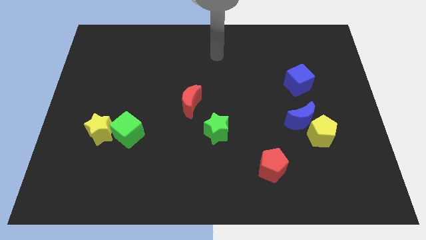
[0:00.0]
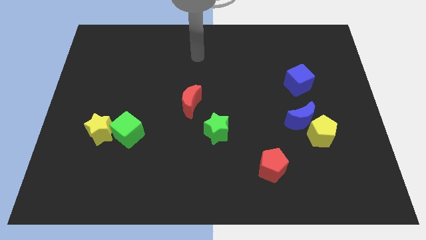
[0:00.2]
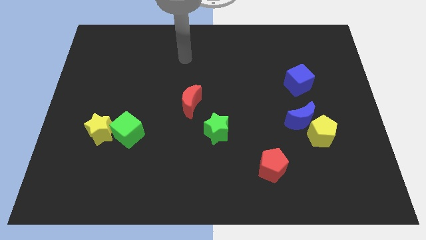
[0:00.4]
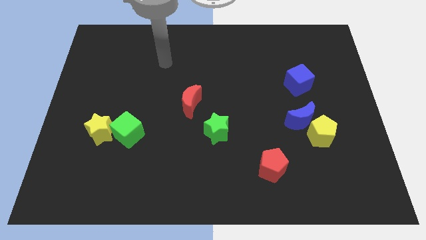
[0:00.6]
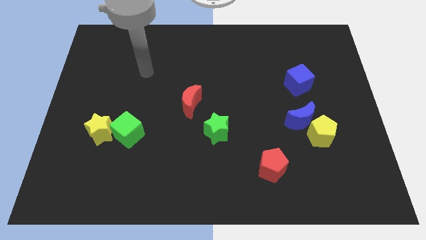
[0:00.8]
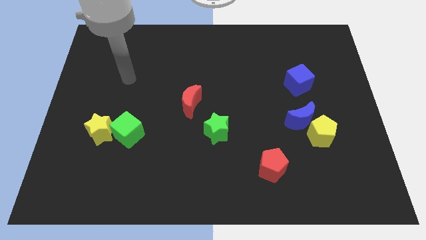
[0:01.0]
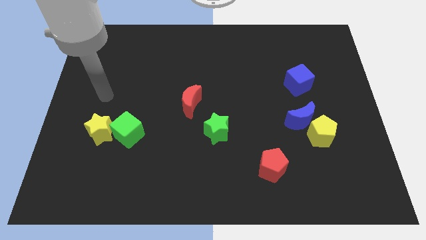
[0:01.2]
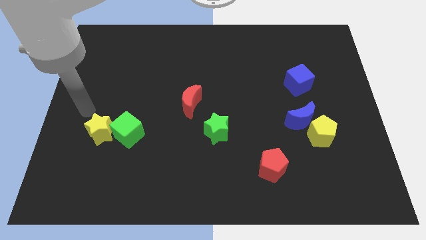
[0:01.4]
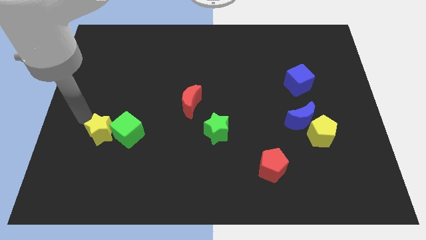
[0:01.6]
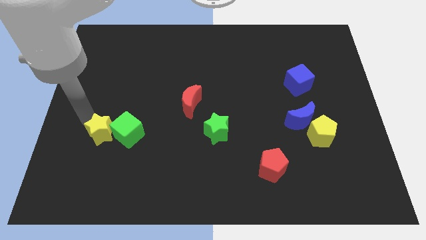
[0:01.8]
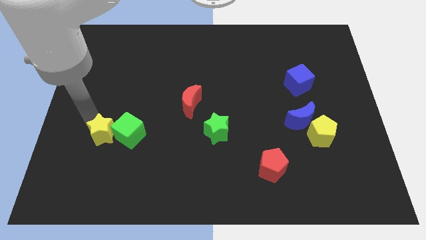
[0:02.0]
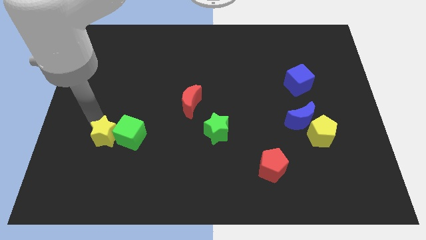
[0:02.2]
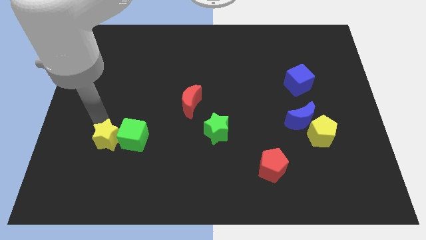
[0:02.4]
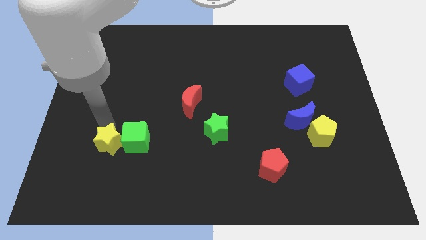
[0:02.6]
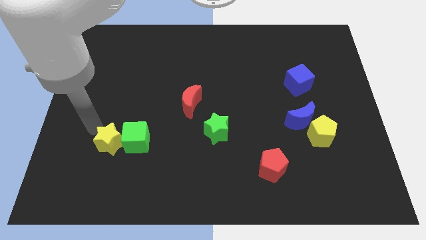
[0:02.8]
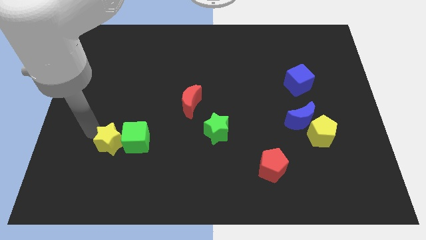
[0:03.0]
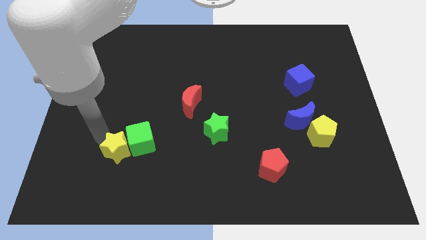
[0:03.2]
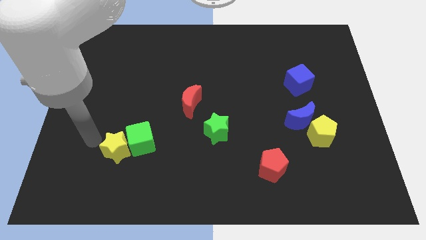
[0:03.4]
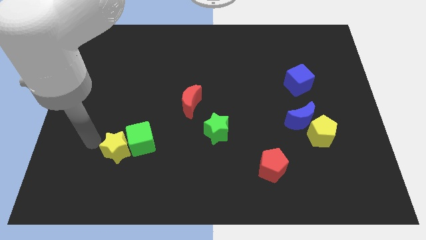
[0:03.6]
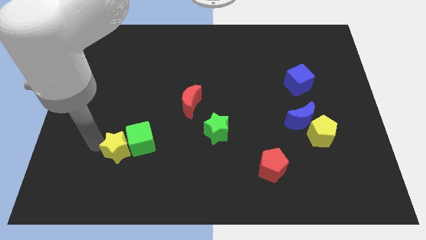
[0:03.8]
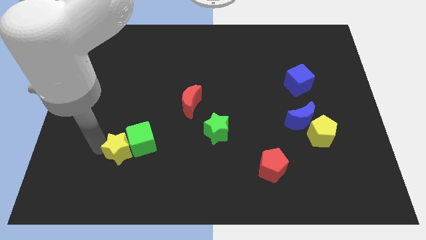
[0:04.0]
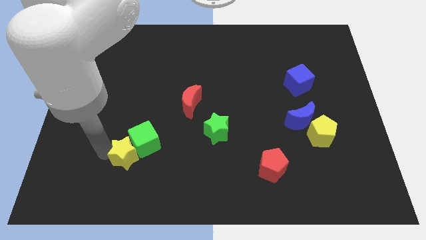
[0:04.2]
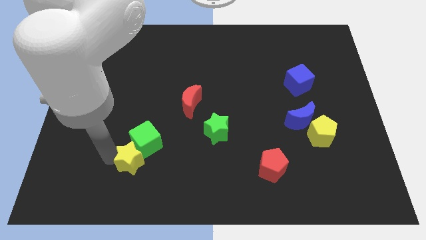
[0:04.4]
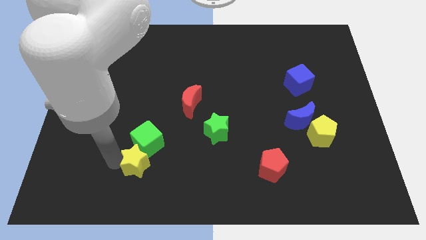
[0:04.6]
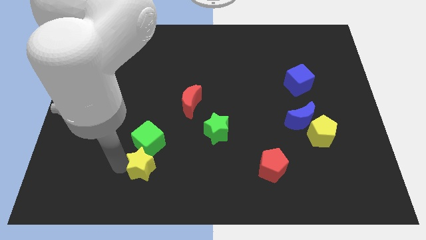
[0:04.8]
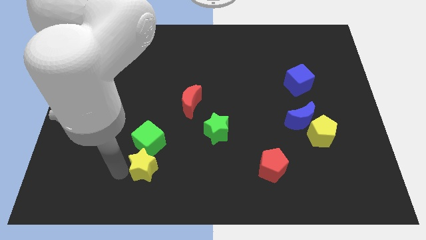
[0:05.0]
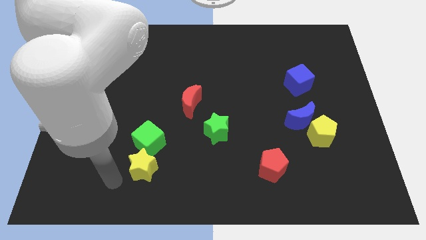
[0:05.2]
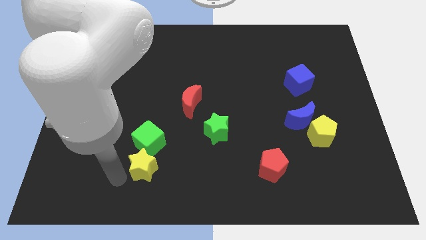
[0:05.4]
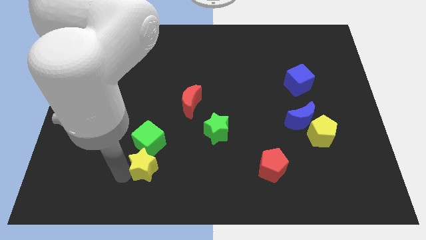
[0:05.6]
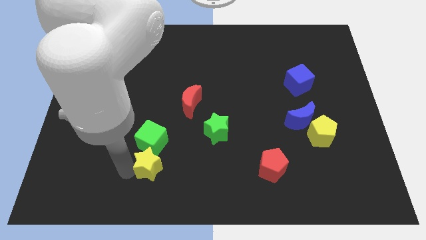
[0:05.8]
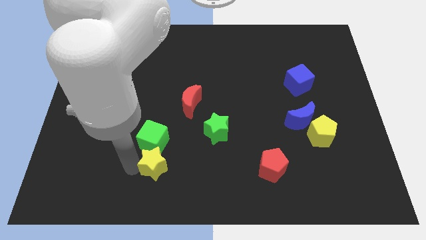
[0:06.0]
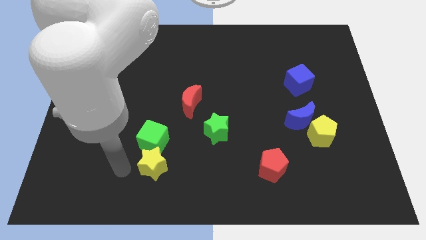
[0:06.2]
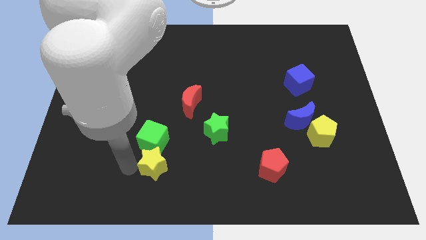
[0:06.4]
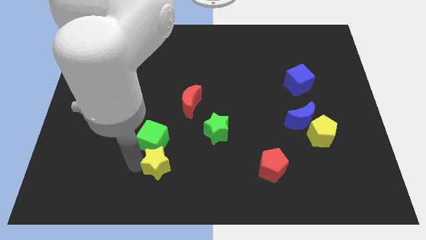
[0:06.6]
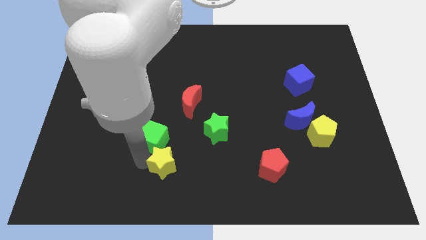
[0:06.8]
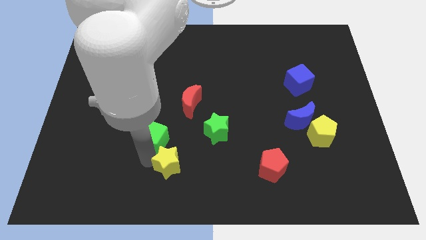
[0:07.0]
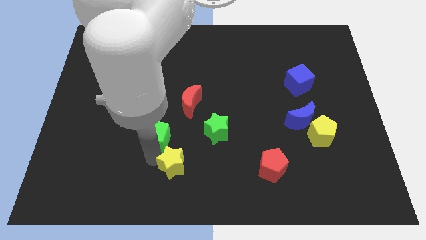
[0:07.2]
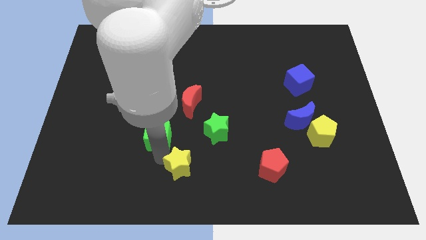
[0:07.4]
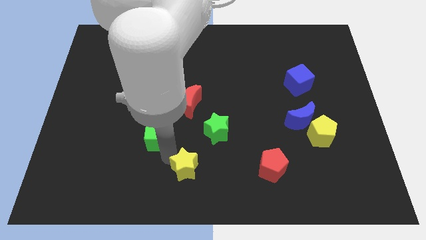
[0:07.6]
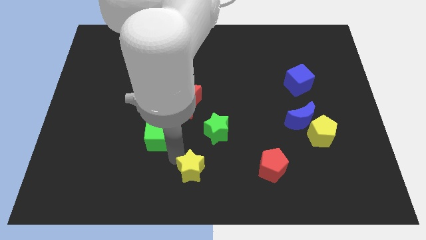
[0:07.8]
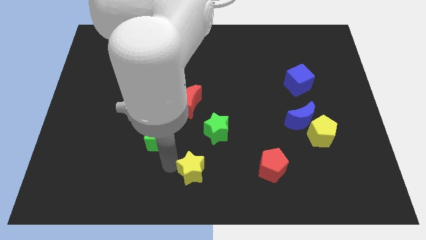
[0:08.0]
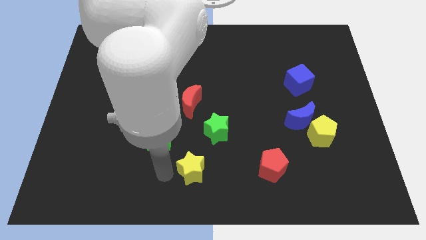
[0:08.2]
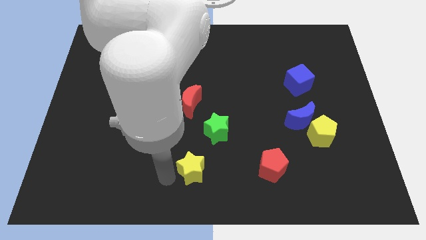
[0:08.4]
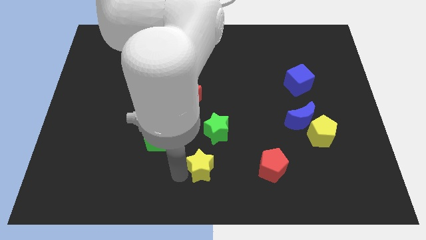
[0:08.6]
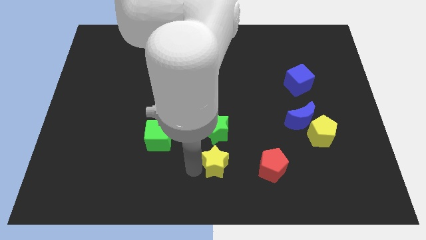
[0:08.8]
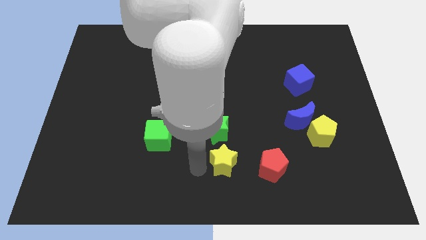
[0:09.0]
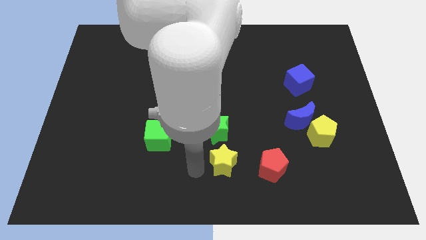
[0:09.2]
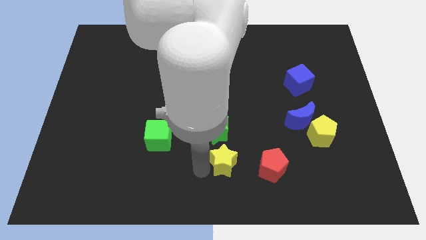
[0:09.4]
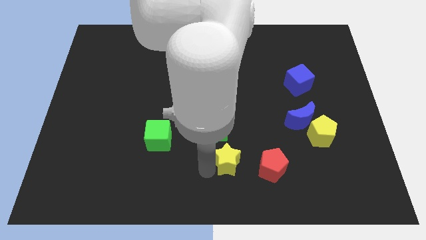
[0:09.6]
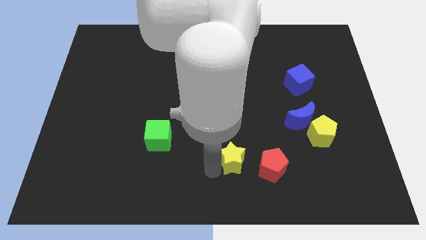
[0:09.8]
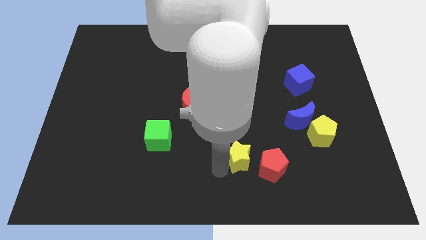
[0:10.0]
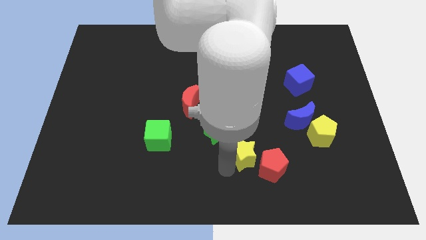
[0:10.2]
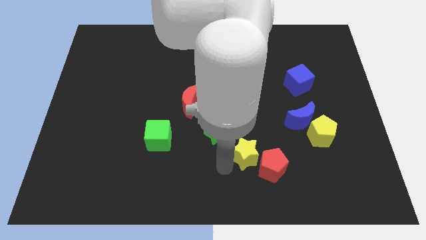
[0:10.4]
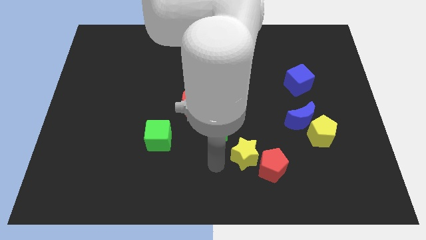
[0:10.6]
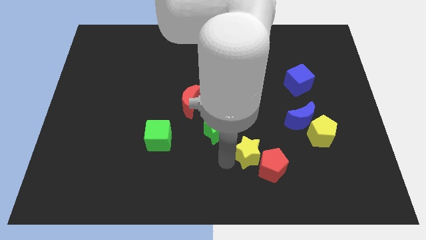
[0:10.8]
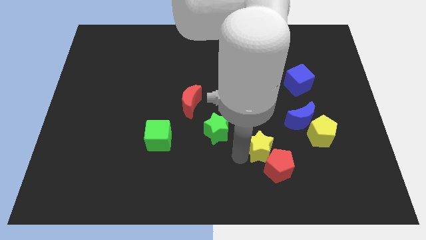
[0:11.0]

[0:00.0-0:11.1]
slide the yellow star diagonally down and to the left of the blue moon

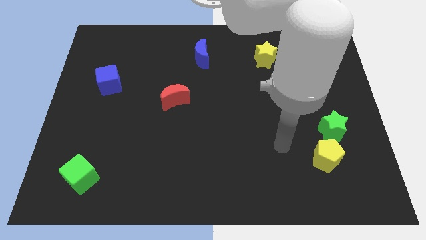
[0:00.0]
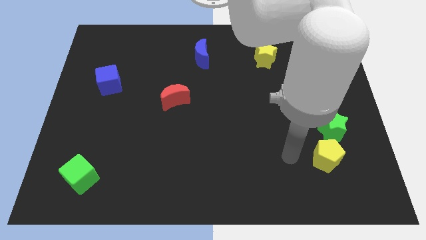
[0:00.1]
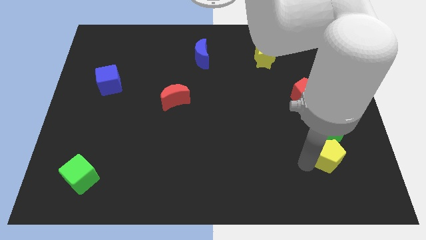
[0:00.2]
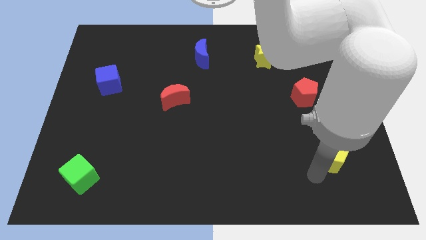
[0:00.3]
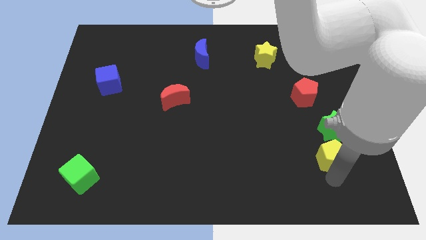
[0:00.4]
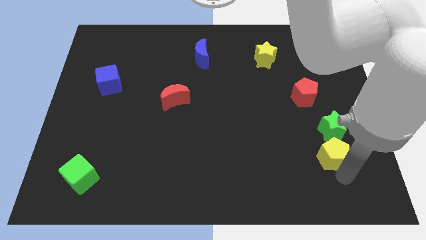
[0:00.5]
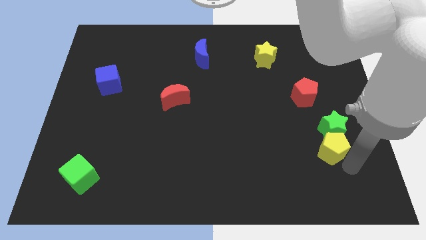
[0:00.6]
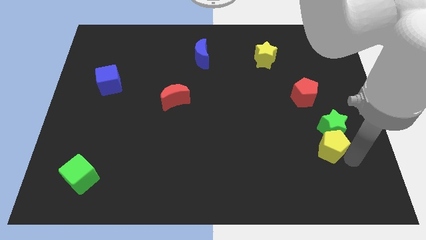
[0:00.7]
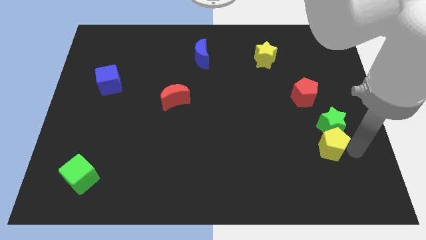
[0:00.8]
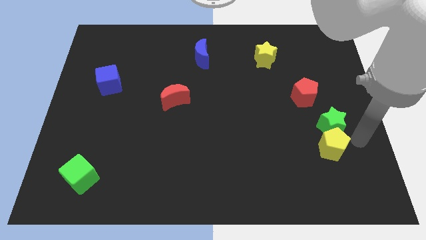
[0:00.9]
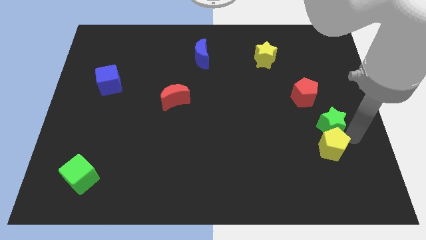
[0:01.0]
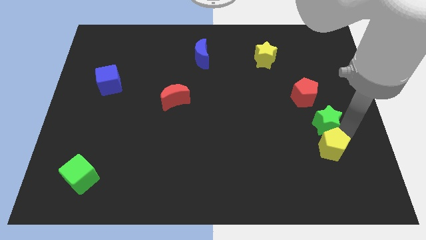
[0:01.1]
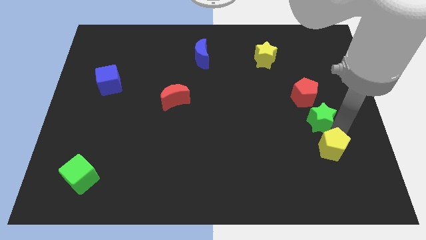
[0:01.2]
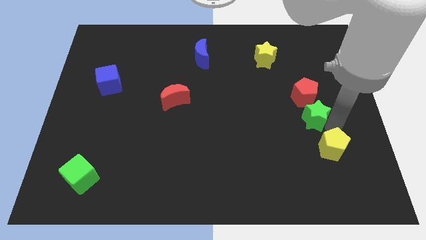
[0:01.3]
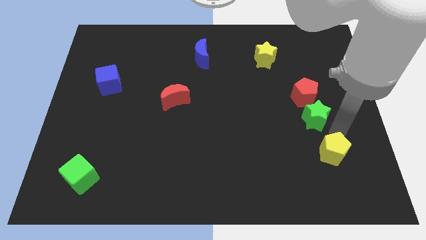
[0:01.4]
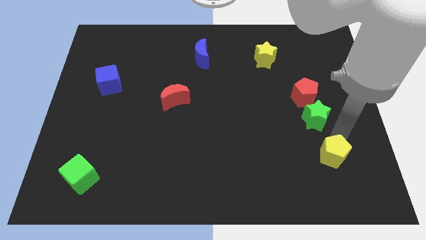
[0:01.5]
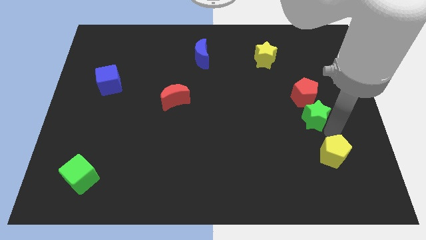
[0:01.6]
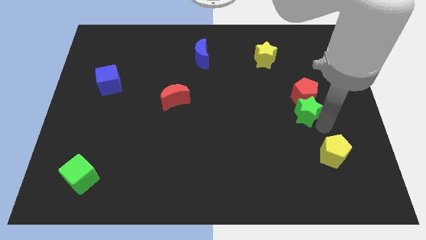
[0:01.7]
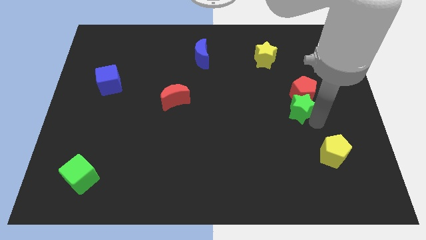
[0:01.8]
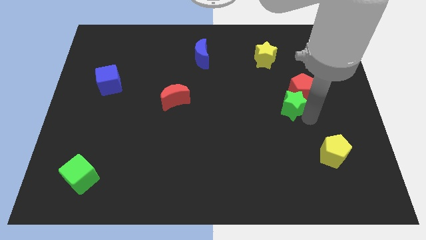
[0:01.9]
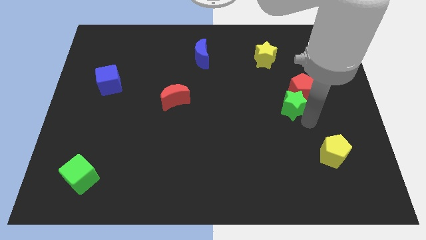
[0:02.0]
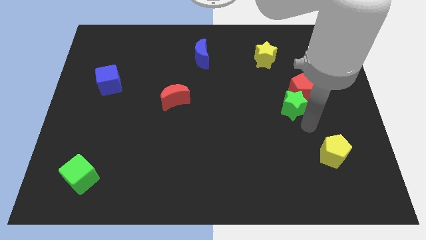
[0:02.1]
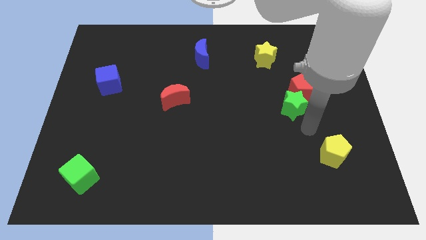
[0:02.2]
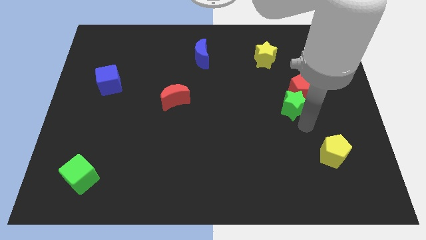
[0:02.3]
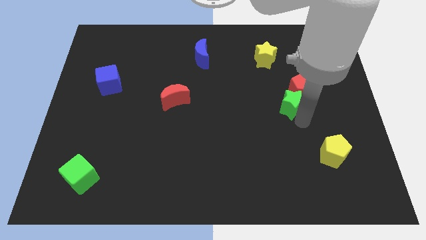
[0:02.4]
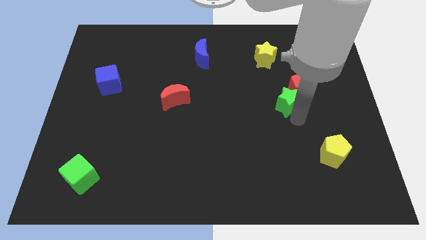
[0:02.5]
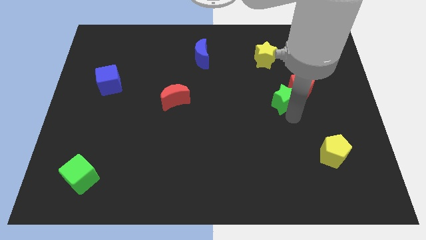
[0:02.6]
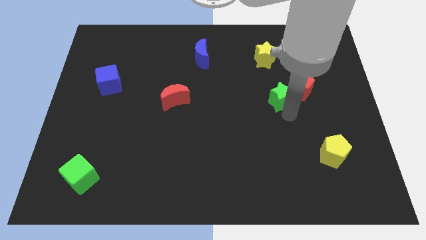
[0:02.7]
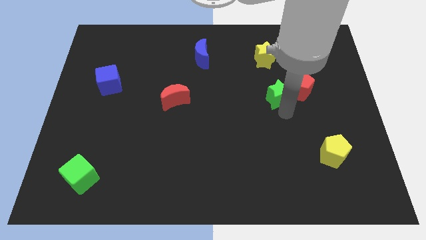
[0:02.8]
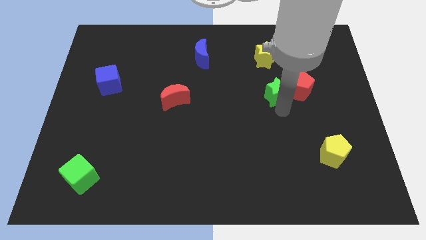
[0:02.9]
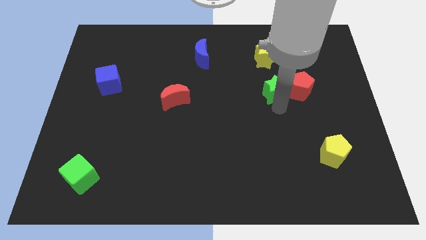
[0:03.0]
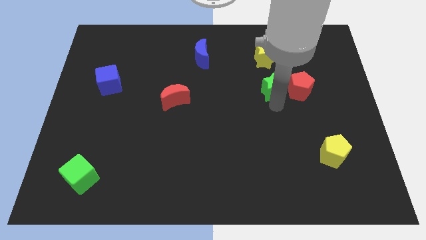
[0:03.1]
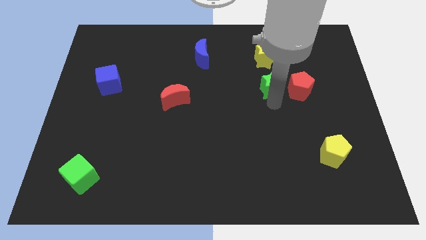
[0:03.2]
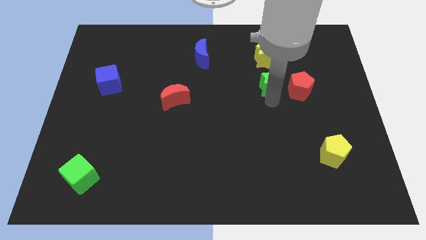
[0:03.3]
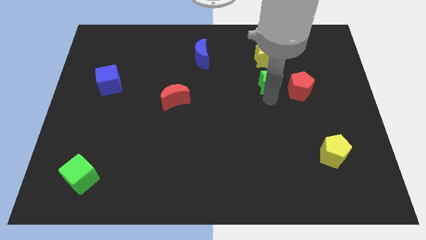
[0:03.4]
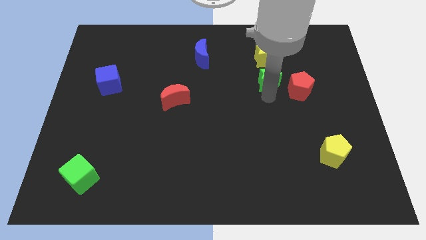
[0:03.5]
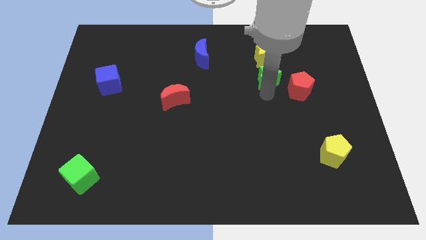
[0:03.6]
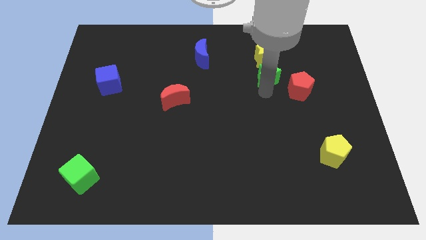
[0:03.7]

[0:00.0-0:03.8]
move the green star to the bottom right side of the yellow star
